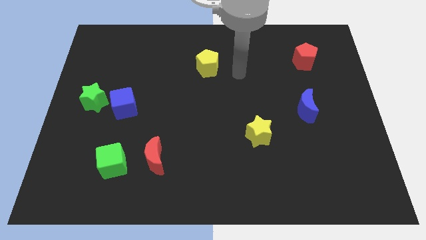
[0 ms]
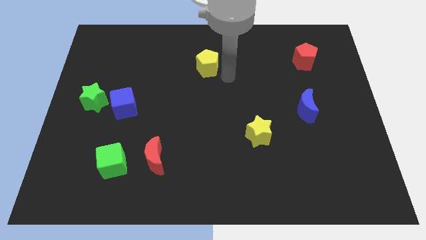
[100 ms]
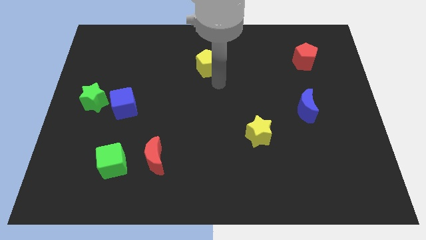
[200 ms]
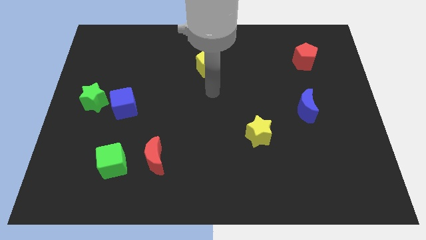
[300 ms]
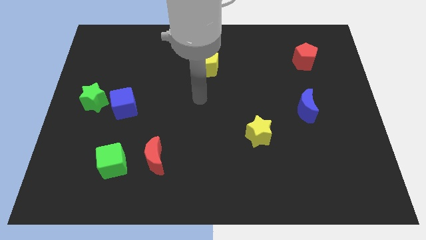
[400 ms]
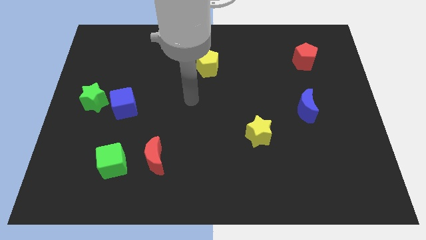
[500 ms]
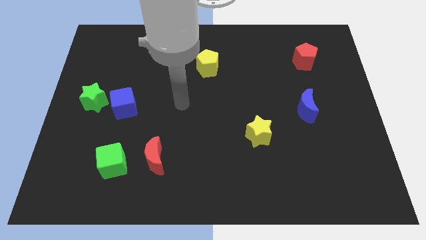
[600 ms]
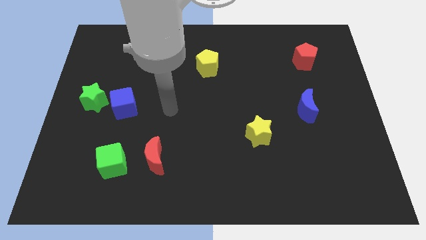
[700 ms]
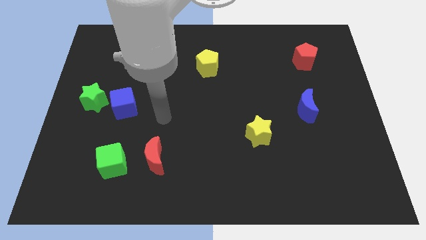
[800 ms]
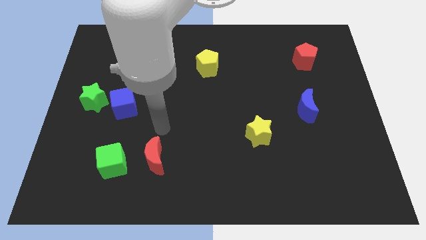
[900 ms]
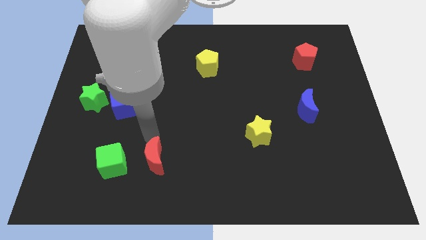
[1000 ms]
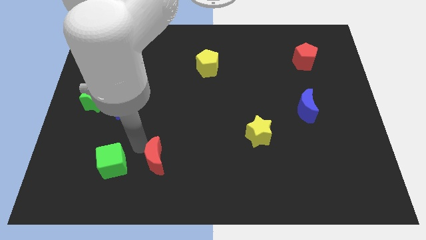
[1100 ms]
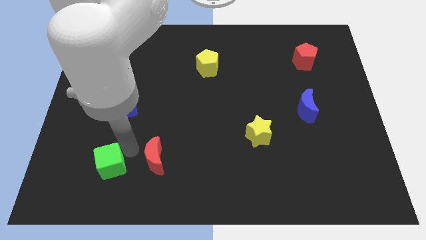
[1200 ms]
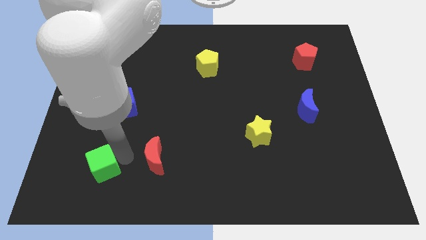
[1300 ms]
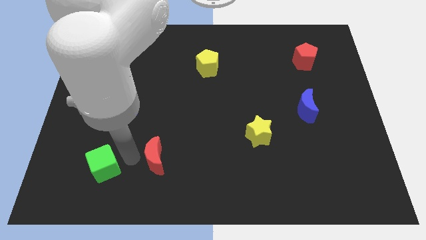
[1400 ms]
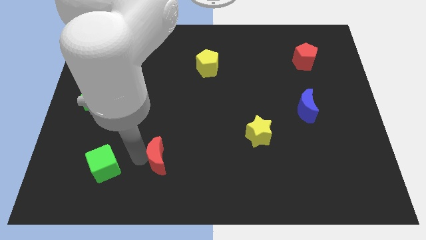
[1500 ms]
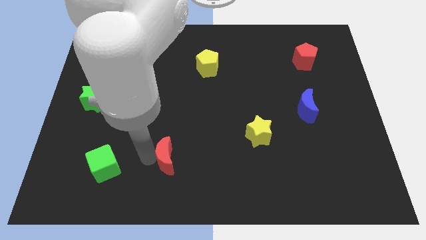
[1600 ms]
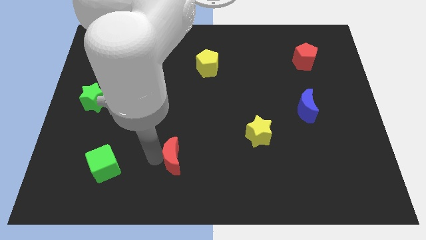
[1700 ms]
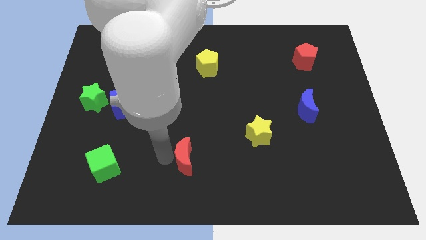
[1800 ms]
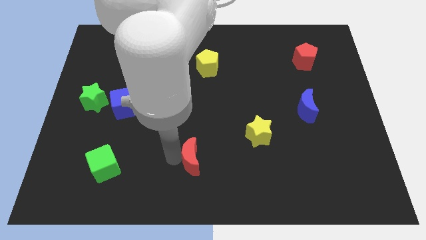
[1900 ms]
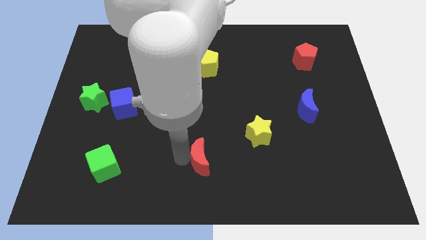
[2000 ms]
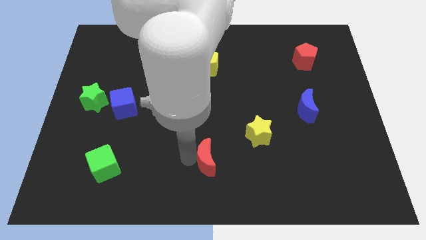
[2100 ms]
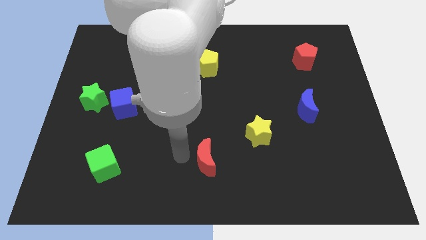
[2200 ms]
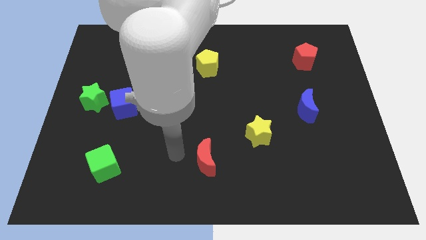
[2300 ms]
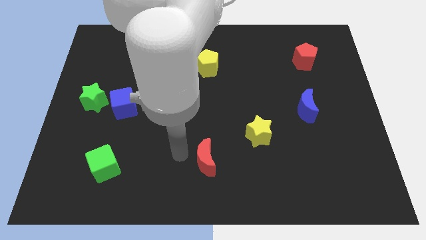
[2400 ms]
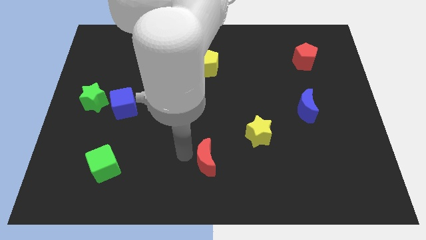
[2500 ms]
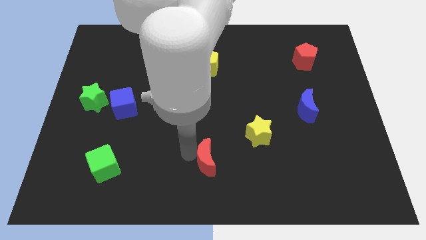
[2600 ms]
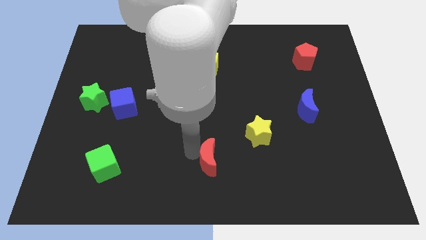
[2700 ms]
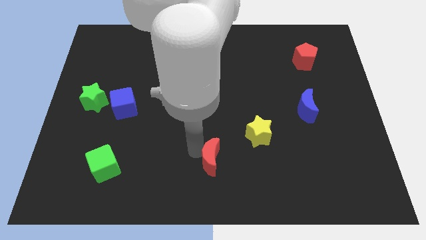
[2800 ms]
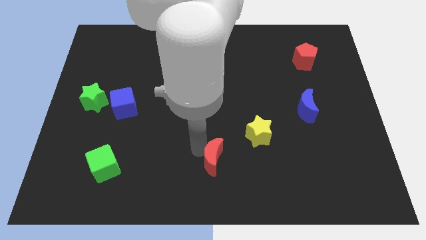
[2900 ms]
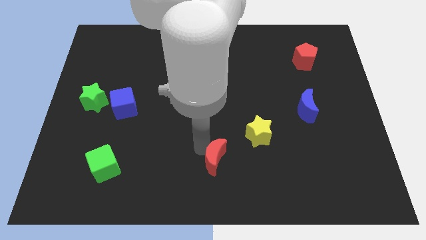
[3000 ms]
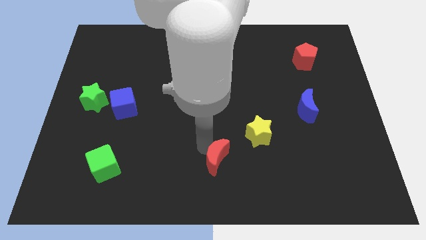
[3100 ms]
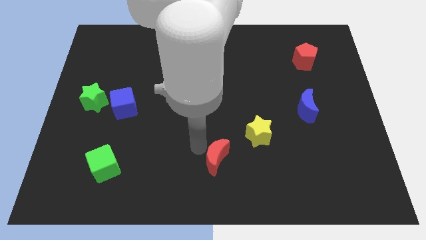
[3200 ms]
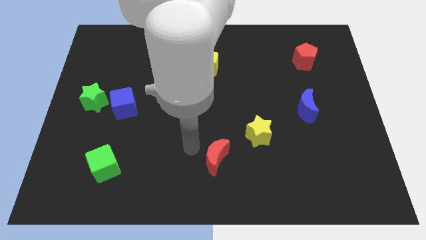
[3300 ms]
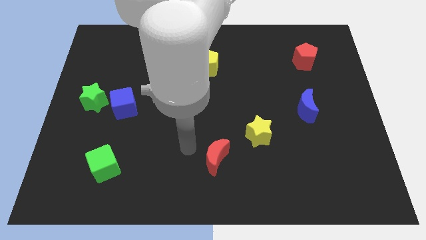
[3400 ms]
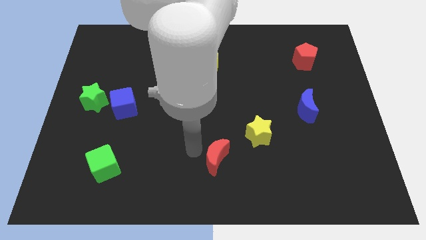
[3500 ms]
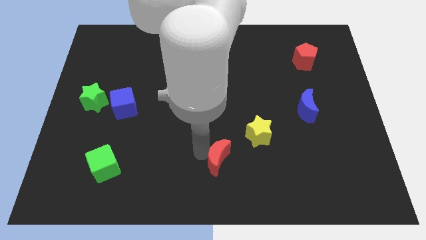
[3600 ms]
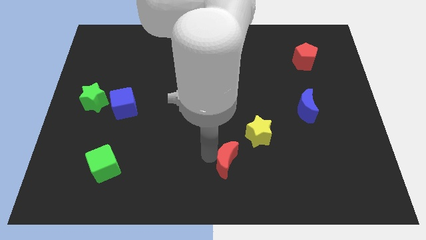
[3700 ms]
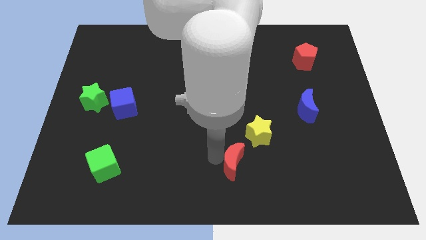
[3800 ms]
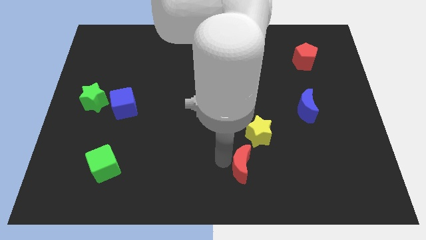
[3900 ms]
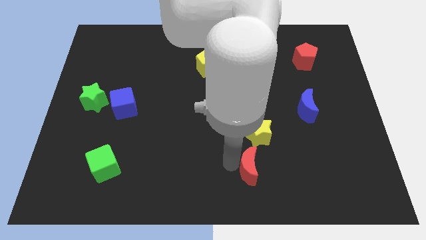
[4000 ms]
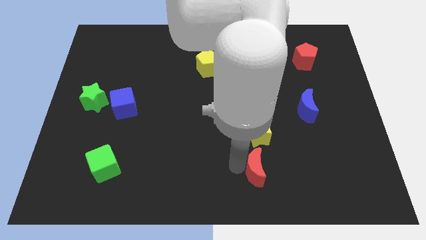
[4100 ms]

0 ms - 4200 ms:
move the red moon to the right

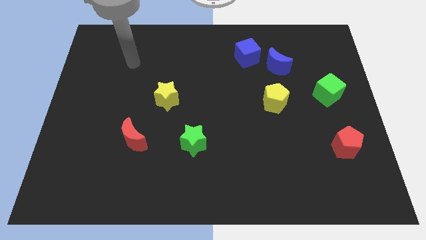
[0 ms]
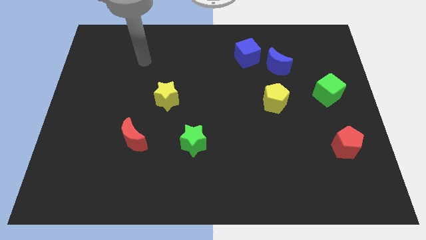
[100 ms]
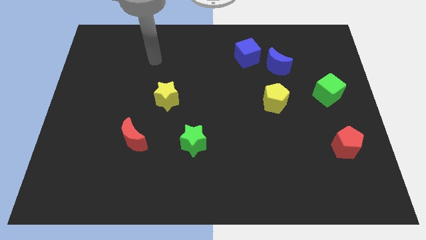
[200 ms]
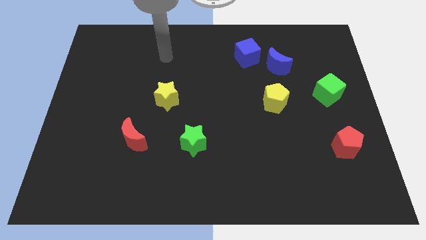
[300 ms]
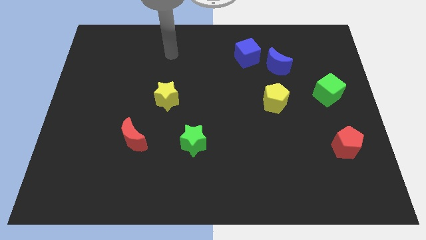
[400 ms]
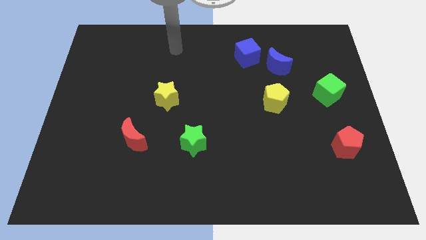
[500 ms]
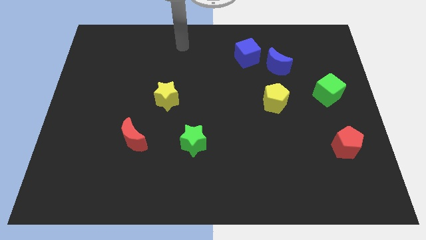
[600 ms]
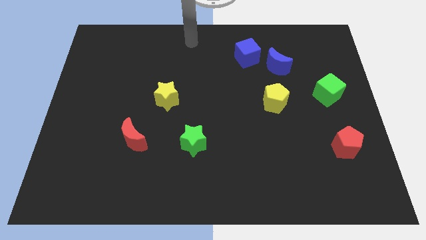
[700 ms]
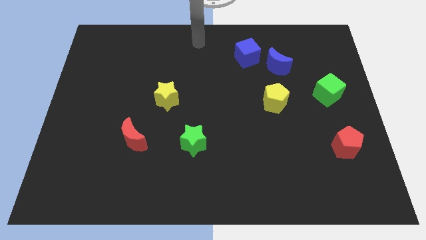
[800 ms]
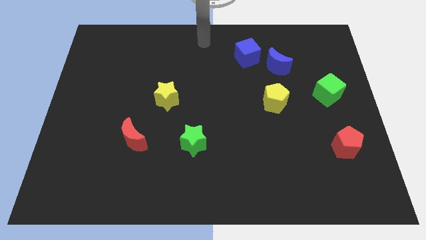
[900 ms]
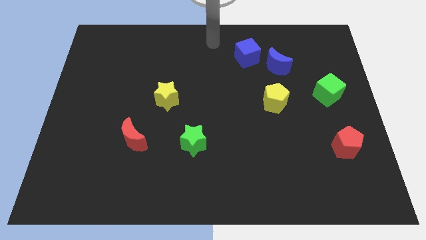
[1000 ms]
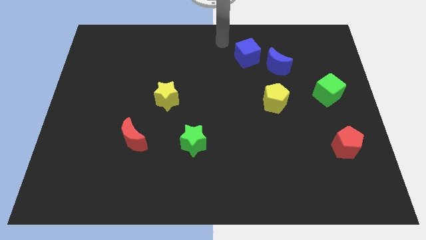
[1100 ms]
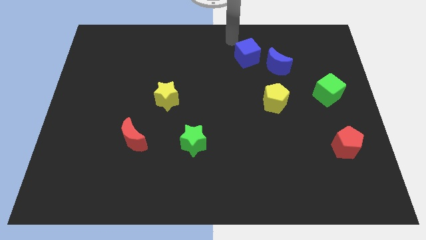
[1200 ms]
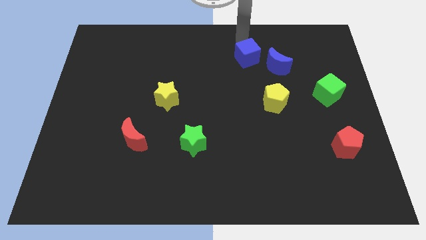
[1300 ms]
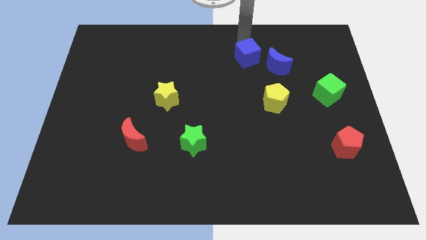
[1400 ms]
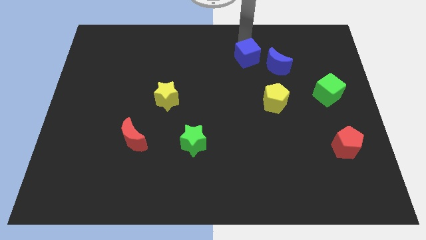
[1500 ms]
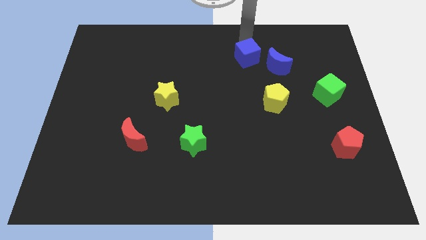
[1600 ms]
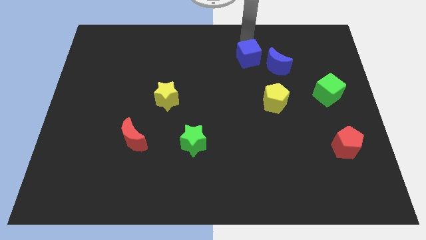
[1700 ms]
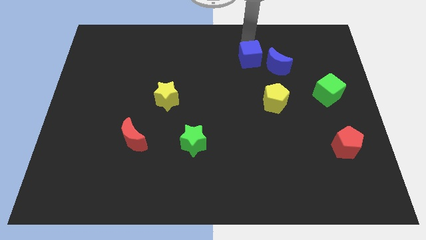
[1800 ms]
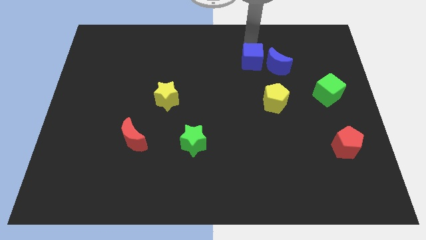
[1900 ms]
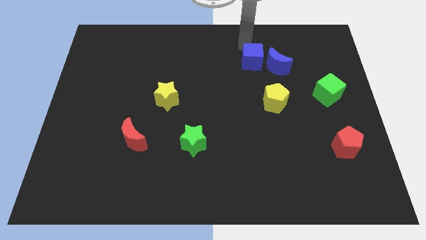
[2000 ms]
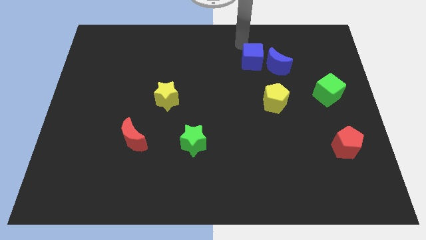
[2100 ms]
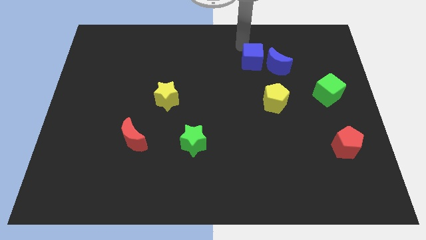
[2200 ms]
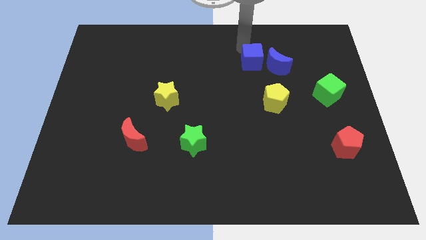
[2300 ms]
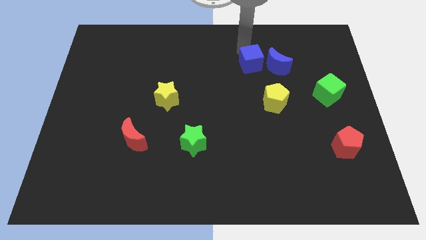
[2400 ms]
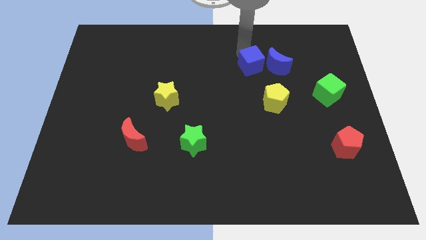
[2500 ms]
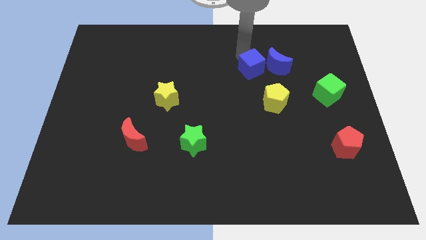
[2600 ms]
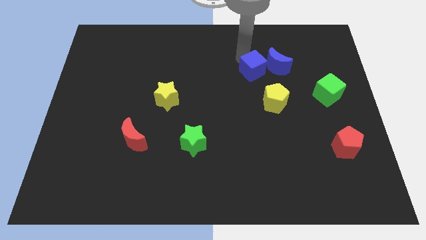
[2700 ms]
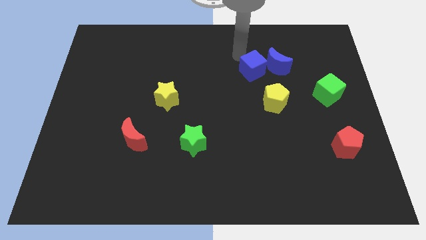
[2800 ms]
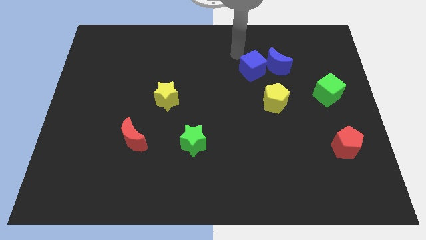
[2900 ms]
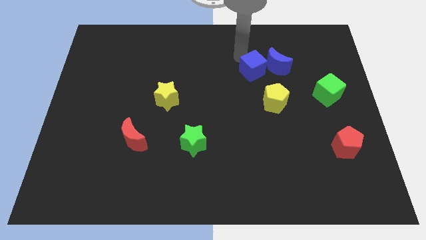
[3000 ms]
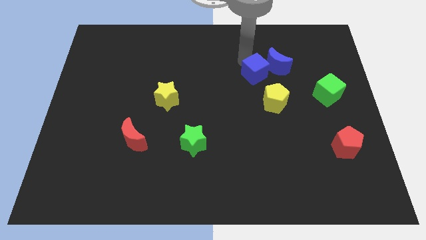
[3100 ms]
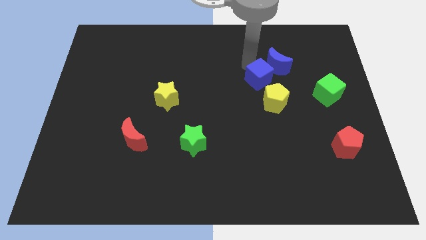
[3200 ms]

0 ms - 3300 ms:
slide the blue cube somewhat downwards and then to the right

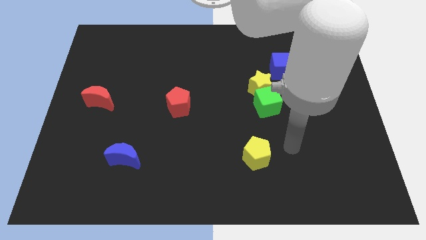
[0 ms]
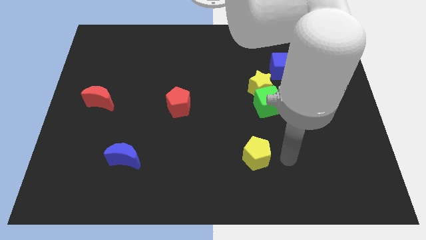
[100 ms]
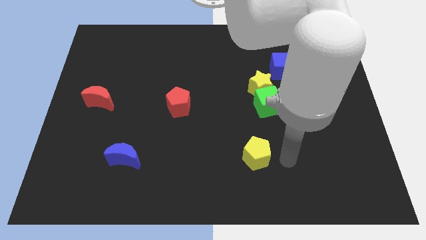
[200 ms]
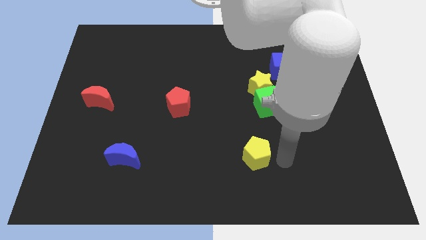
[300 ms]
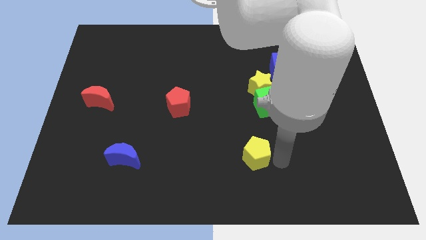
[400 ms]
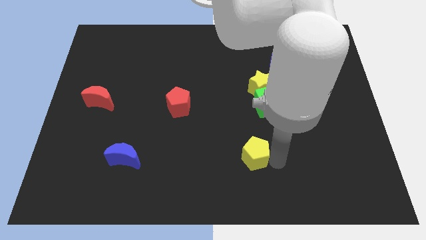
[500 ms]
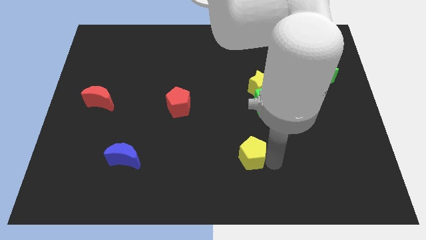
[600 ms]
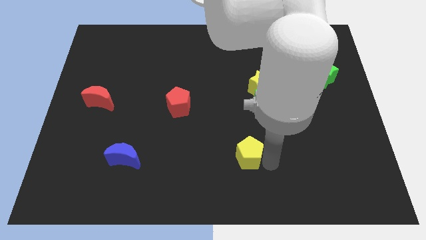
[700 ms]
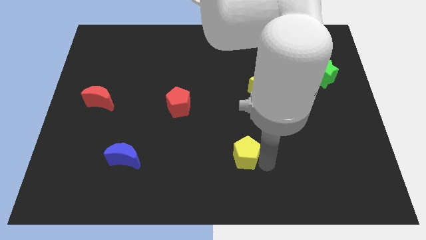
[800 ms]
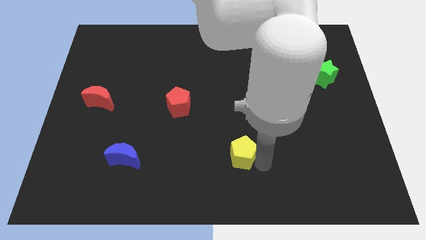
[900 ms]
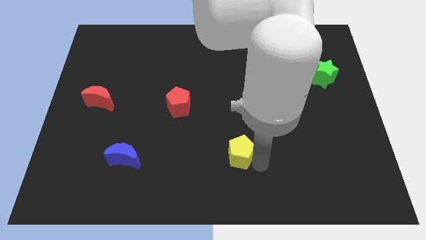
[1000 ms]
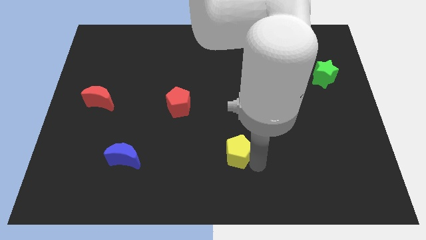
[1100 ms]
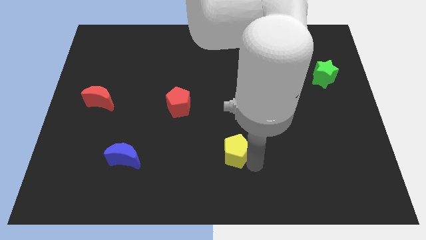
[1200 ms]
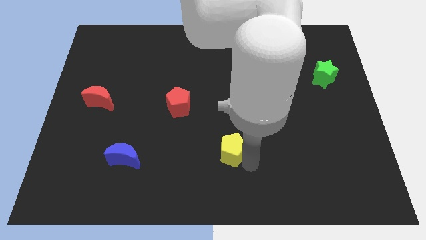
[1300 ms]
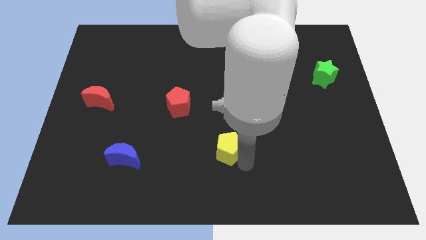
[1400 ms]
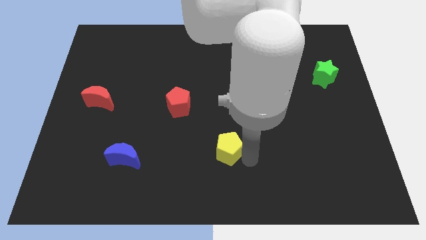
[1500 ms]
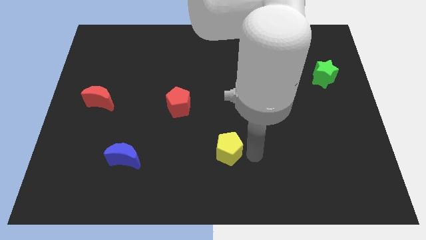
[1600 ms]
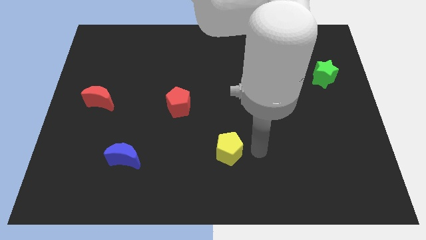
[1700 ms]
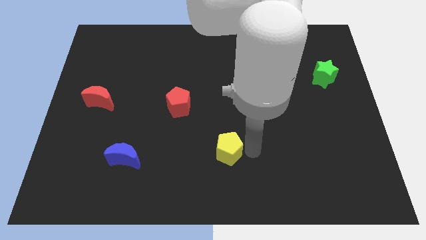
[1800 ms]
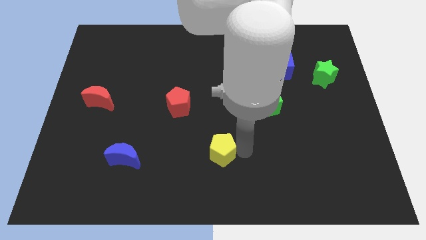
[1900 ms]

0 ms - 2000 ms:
slightly push the yellow pentagon left
